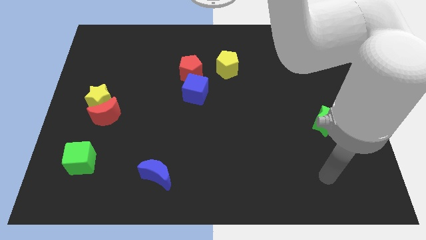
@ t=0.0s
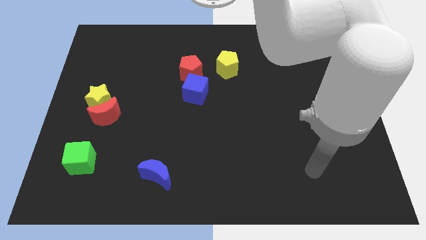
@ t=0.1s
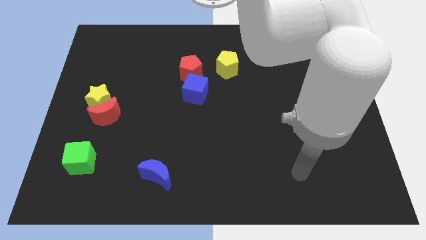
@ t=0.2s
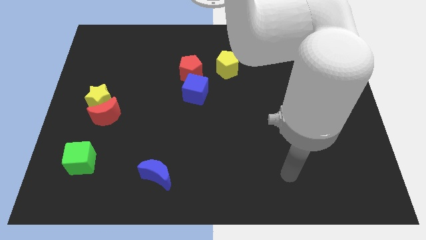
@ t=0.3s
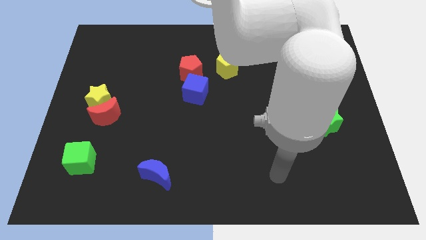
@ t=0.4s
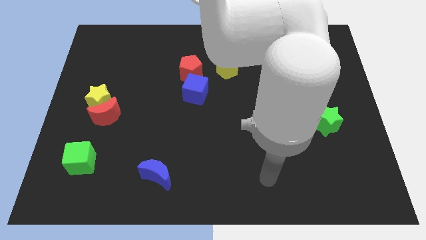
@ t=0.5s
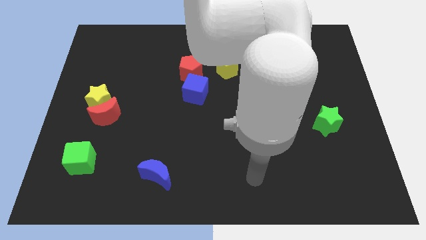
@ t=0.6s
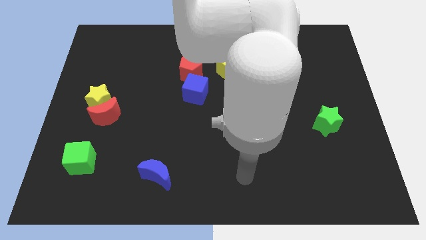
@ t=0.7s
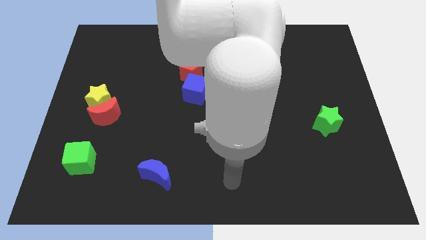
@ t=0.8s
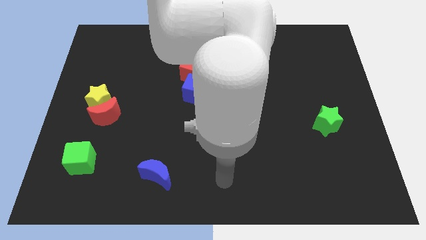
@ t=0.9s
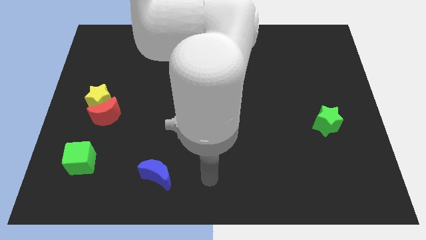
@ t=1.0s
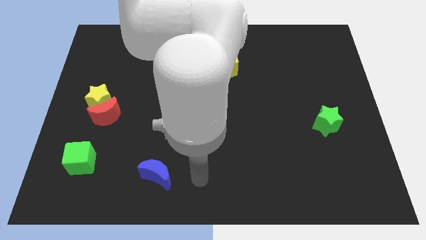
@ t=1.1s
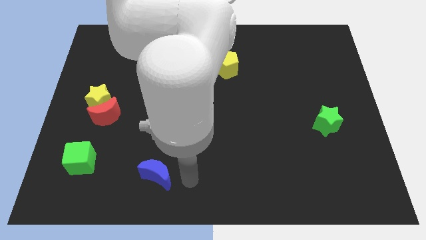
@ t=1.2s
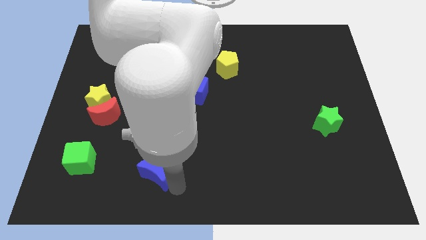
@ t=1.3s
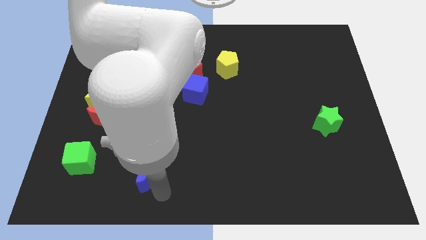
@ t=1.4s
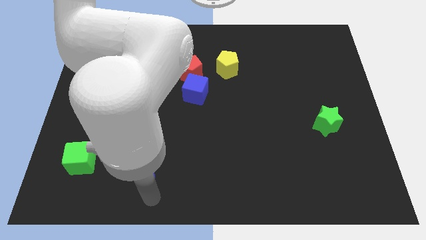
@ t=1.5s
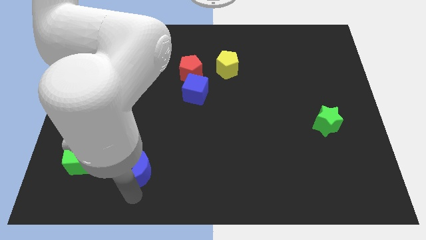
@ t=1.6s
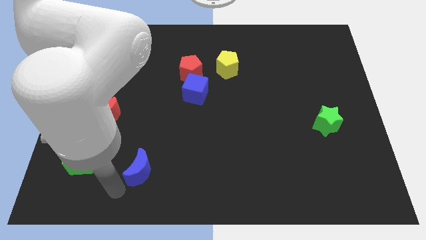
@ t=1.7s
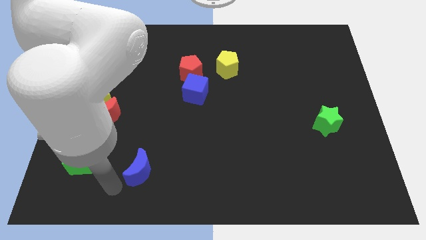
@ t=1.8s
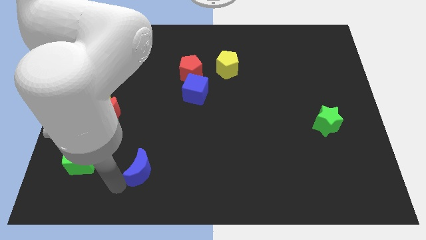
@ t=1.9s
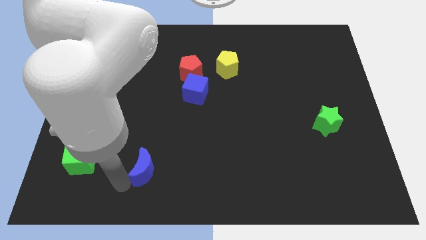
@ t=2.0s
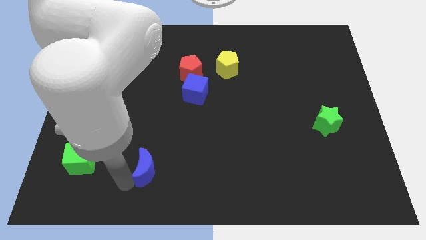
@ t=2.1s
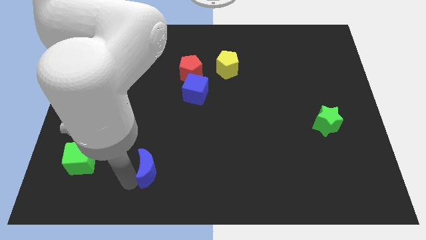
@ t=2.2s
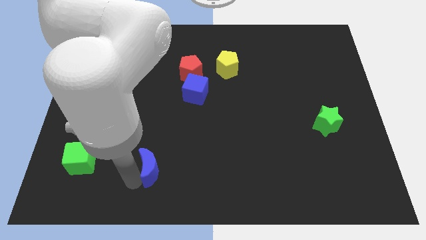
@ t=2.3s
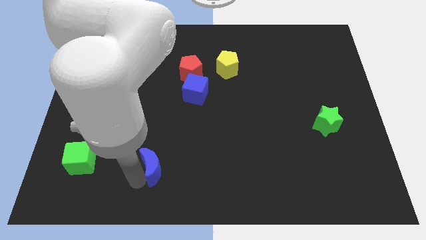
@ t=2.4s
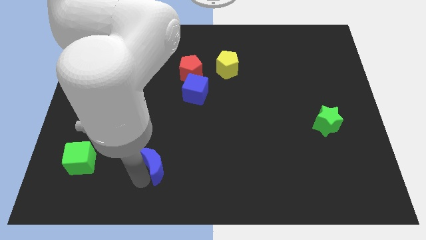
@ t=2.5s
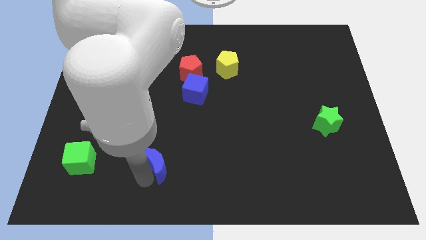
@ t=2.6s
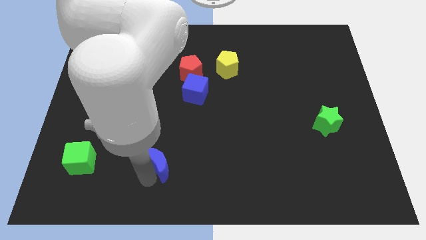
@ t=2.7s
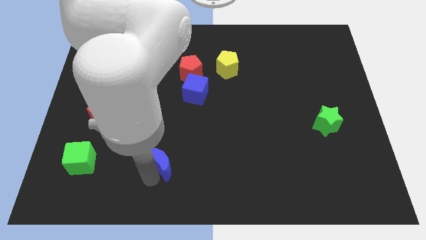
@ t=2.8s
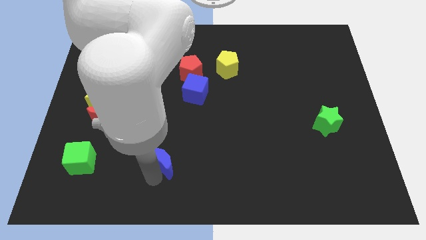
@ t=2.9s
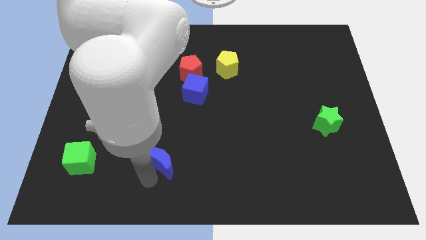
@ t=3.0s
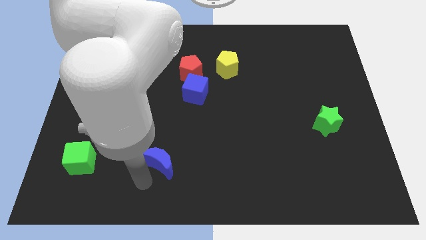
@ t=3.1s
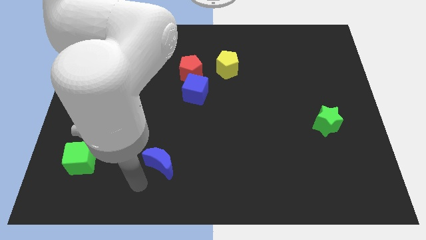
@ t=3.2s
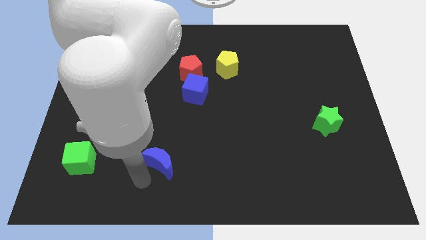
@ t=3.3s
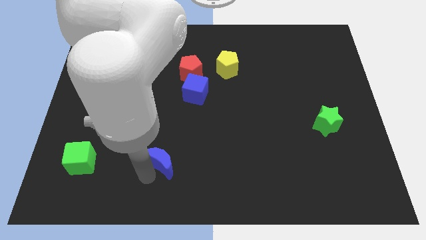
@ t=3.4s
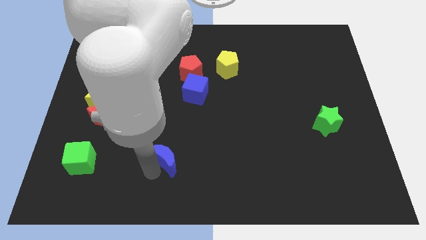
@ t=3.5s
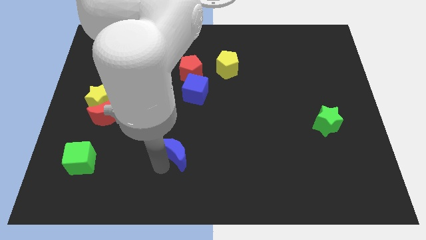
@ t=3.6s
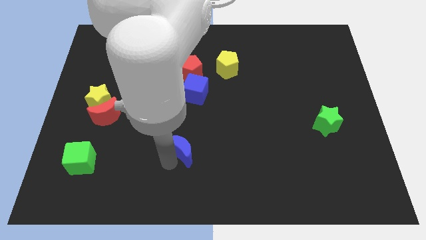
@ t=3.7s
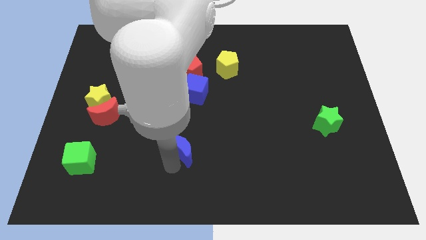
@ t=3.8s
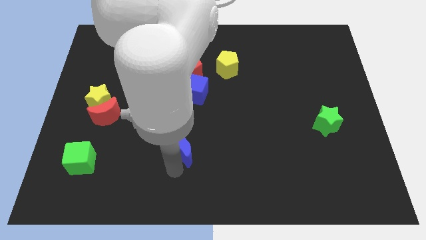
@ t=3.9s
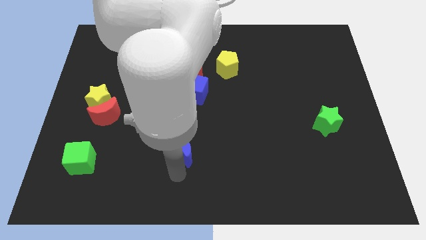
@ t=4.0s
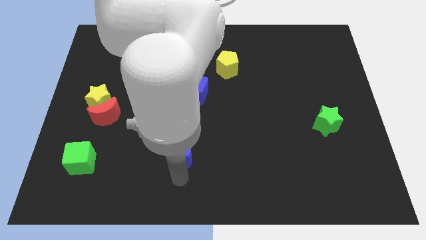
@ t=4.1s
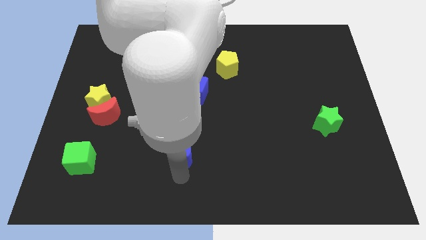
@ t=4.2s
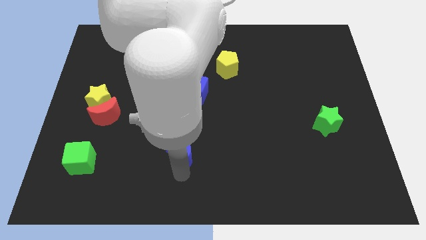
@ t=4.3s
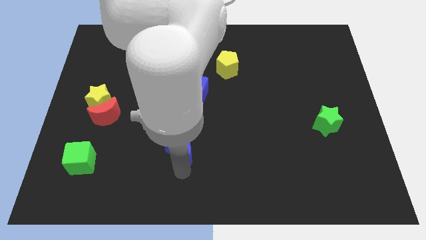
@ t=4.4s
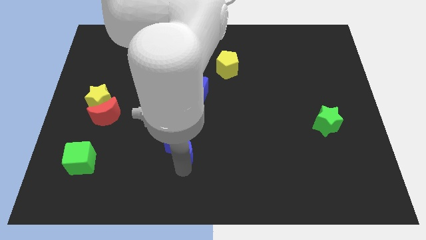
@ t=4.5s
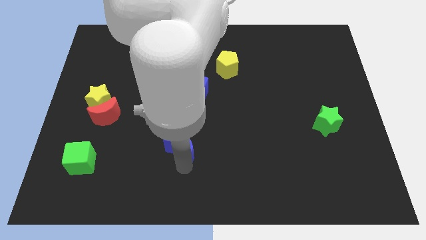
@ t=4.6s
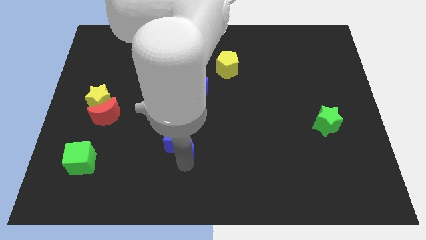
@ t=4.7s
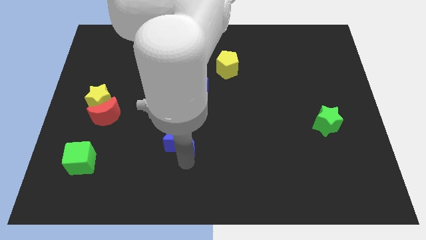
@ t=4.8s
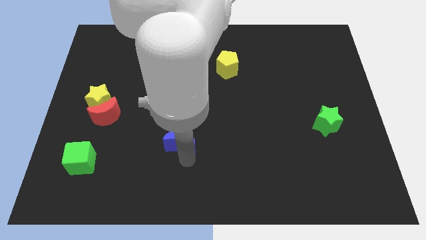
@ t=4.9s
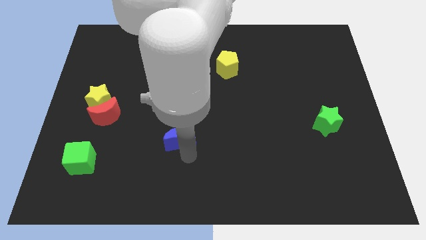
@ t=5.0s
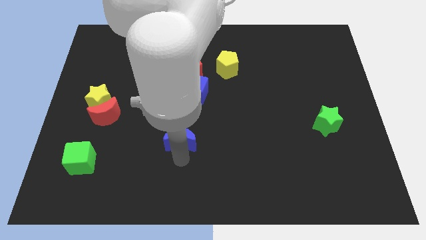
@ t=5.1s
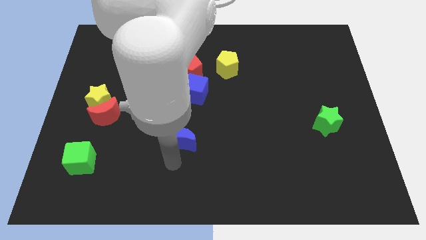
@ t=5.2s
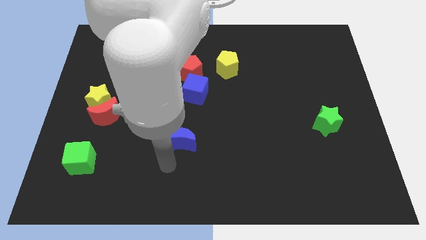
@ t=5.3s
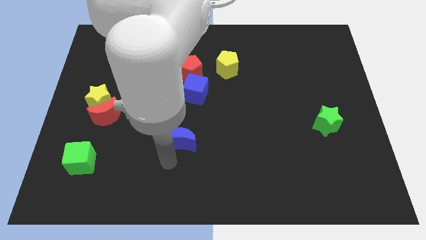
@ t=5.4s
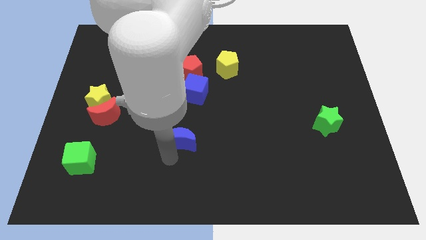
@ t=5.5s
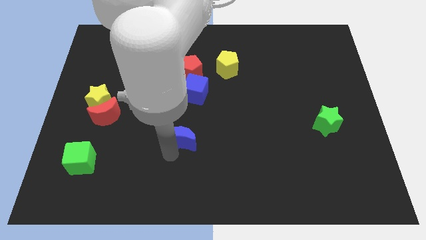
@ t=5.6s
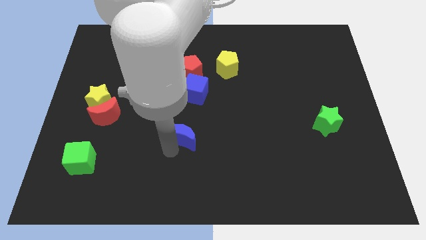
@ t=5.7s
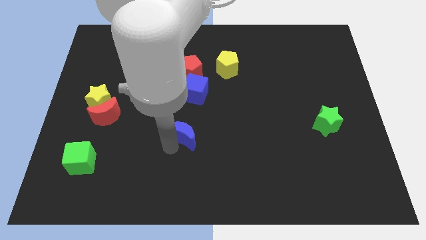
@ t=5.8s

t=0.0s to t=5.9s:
push the blue moon to the center of the board

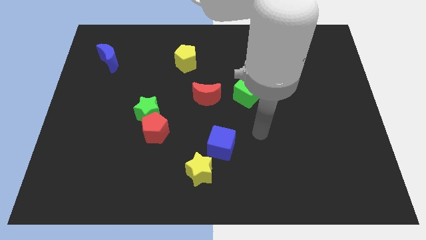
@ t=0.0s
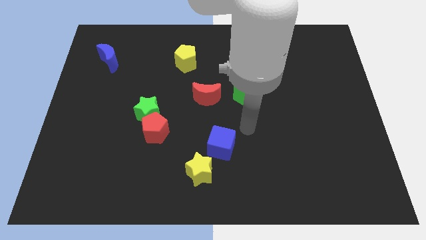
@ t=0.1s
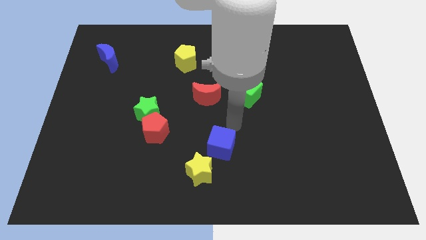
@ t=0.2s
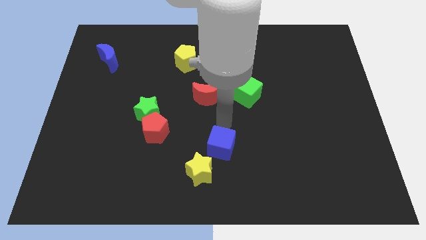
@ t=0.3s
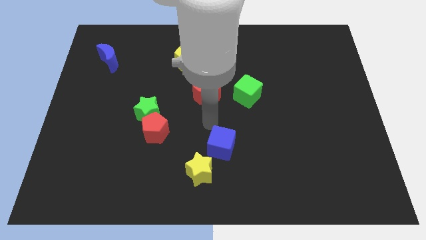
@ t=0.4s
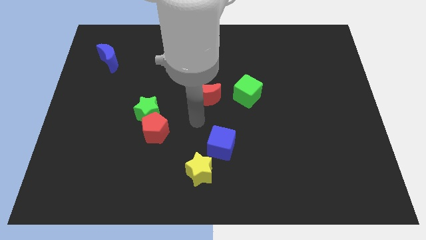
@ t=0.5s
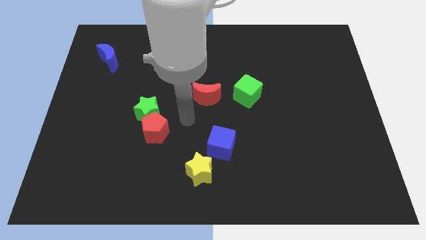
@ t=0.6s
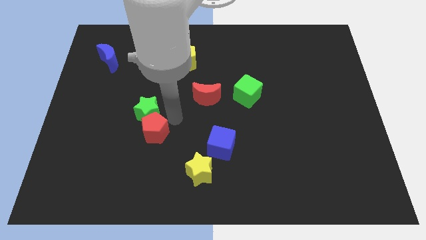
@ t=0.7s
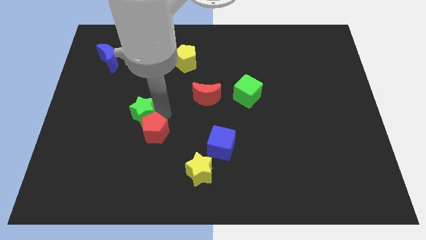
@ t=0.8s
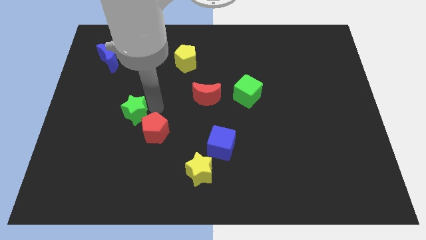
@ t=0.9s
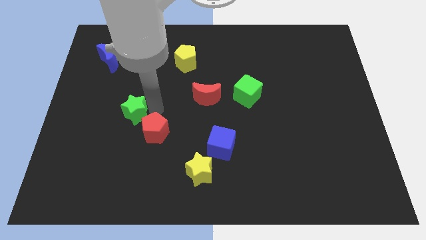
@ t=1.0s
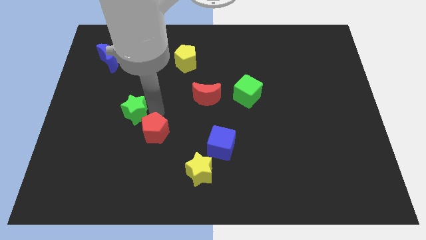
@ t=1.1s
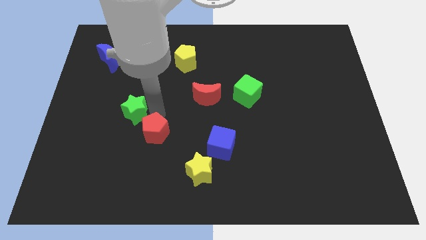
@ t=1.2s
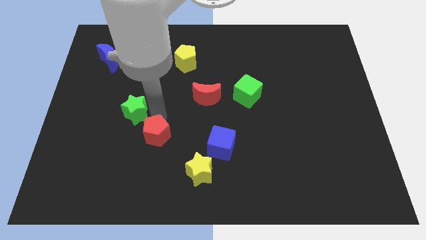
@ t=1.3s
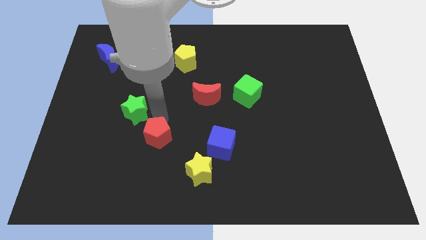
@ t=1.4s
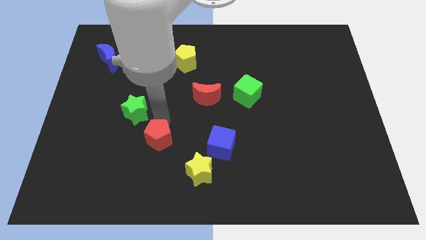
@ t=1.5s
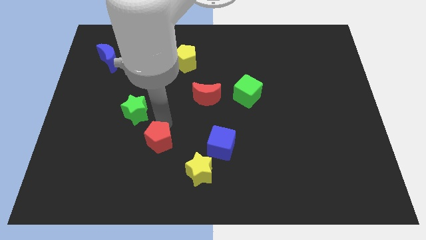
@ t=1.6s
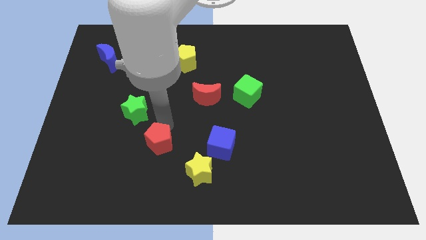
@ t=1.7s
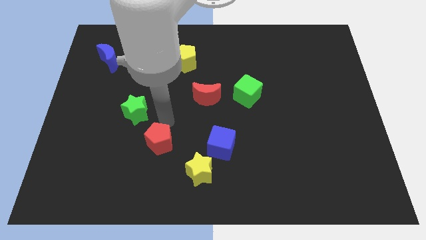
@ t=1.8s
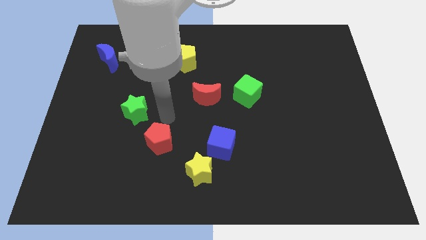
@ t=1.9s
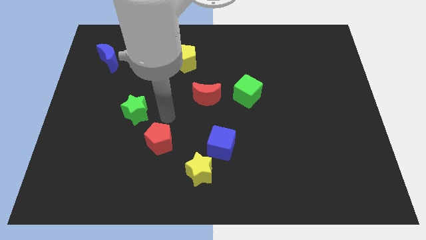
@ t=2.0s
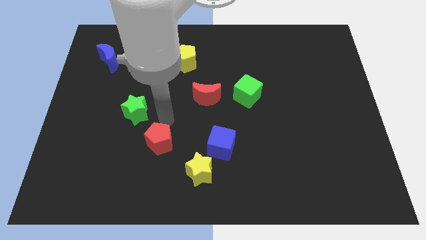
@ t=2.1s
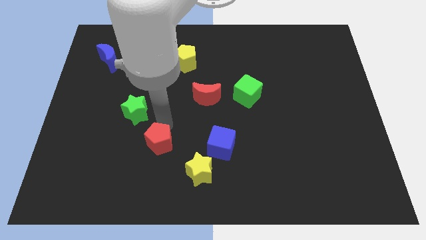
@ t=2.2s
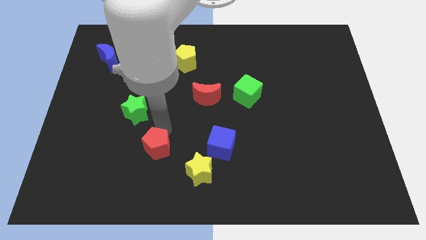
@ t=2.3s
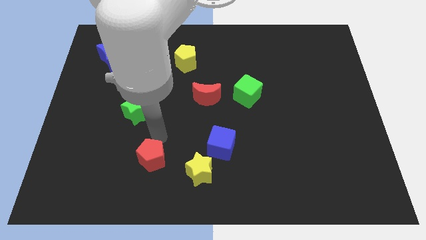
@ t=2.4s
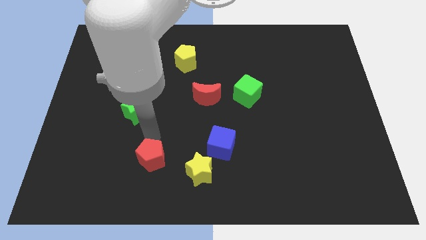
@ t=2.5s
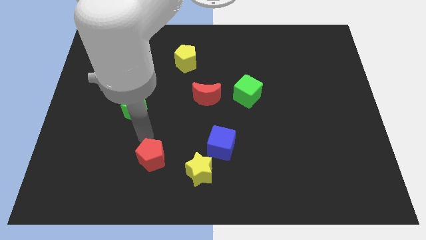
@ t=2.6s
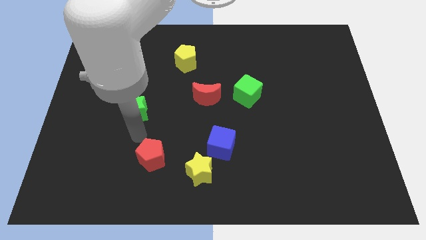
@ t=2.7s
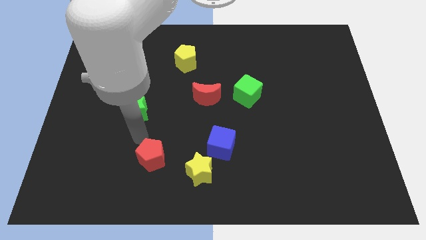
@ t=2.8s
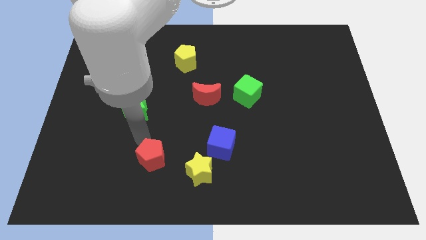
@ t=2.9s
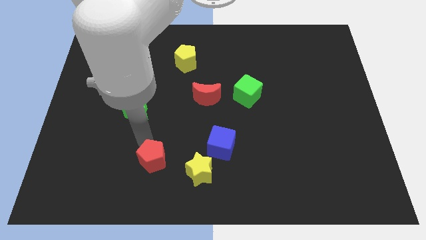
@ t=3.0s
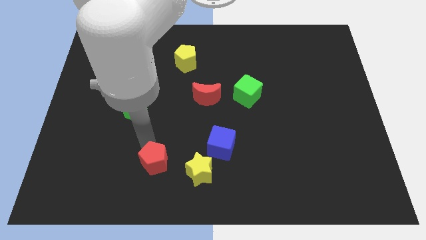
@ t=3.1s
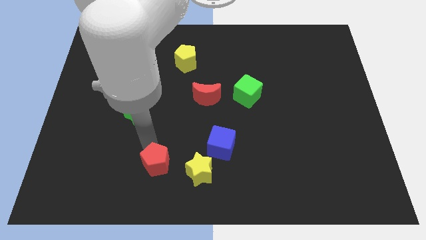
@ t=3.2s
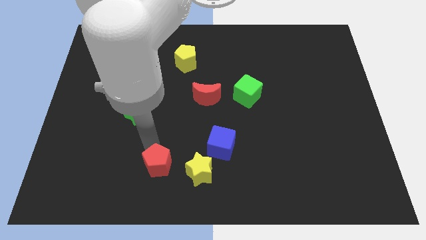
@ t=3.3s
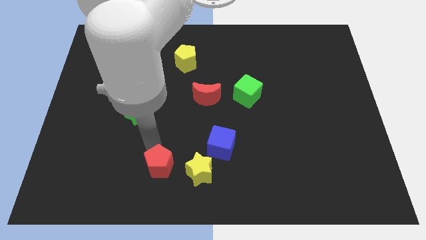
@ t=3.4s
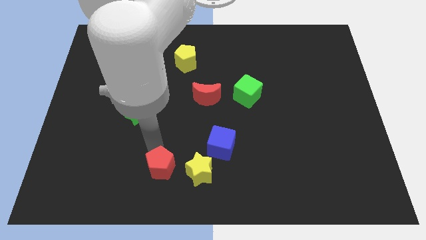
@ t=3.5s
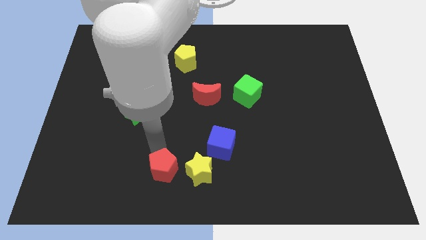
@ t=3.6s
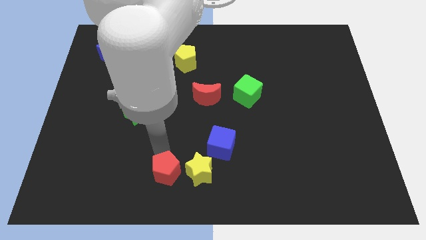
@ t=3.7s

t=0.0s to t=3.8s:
move the red pentagon to the bottom
